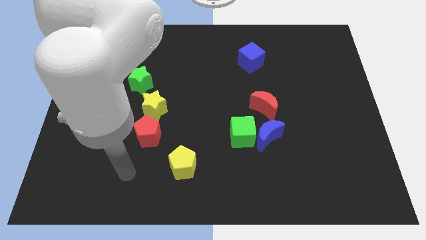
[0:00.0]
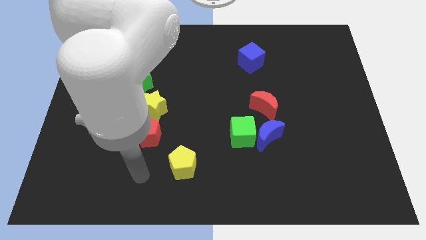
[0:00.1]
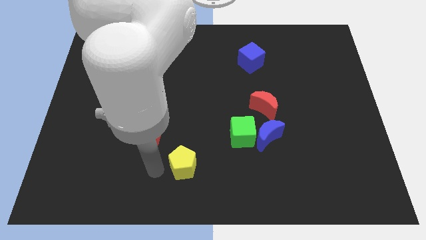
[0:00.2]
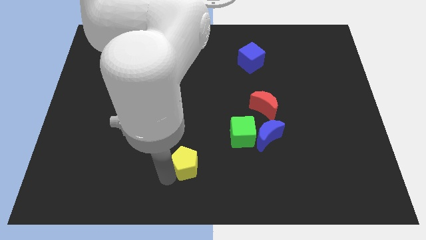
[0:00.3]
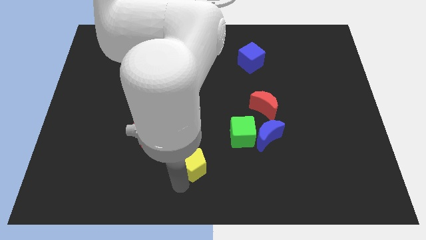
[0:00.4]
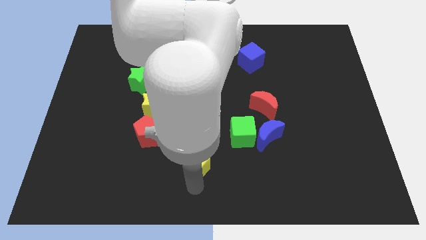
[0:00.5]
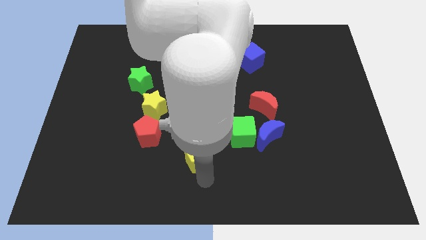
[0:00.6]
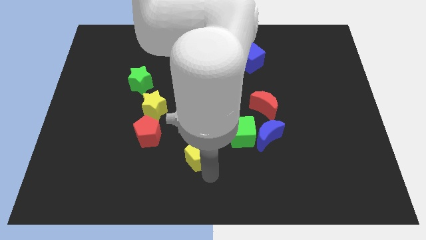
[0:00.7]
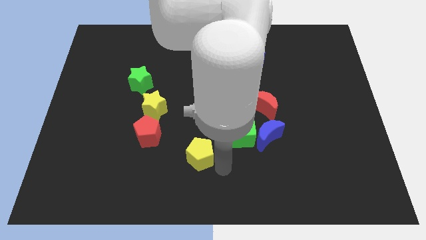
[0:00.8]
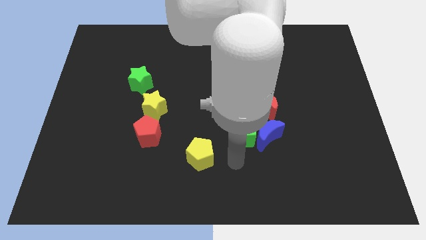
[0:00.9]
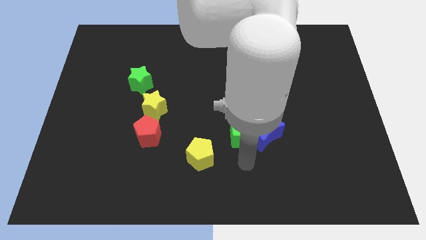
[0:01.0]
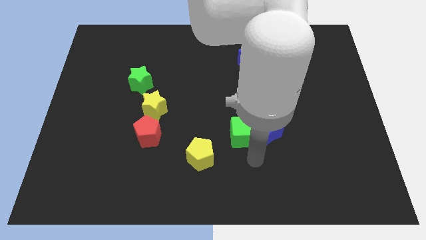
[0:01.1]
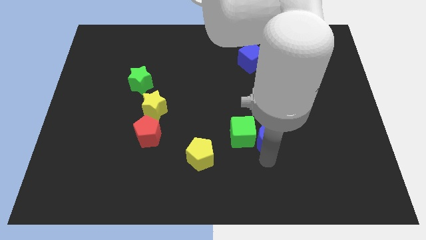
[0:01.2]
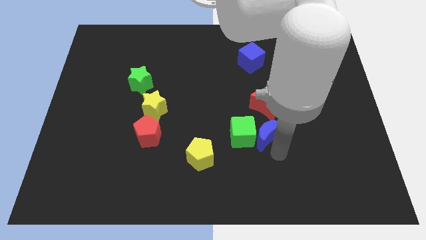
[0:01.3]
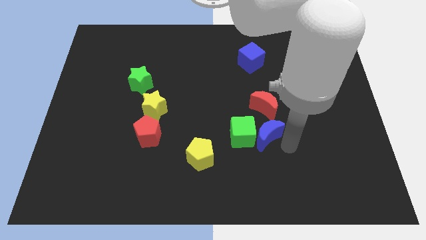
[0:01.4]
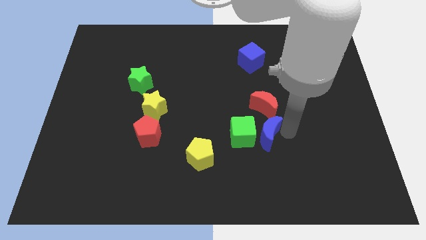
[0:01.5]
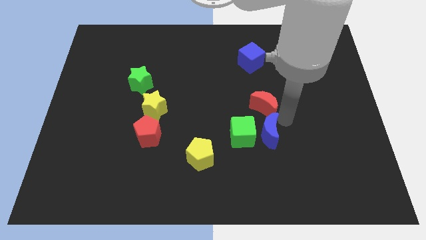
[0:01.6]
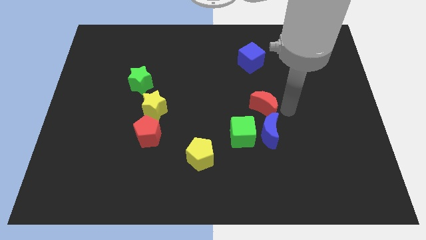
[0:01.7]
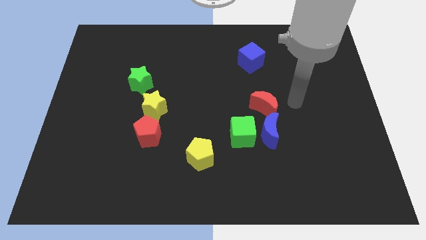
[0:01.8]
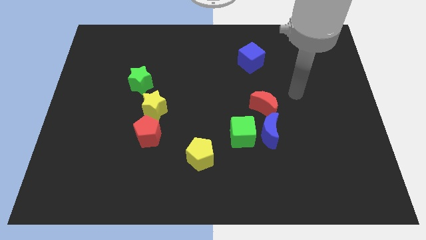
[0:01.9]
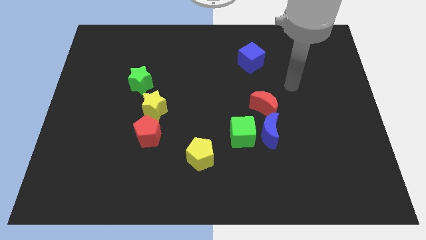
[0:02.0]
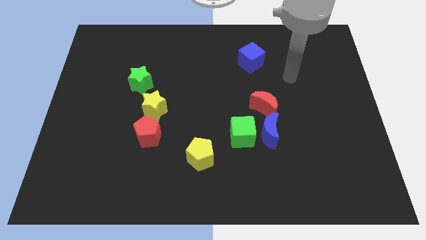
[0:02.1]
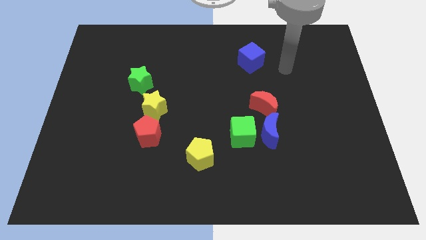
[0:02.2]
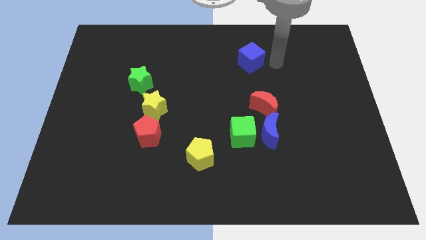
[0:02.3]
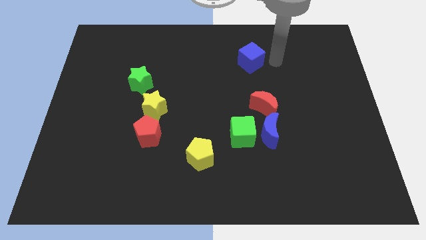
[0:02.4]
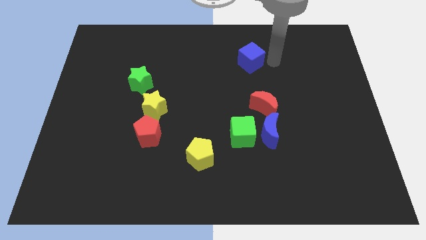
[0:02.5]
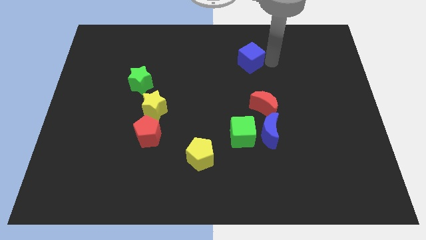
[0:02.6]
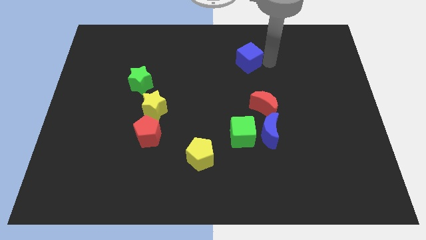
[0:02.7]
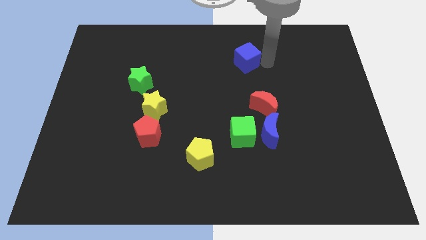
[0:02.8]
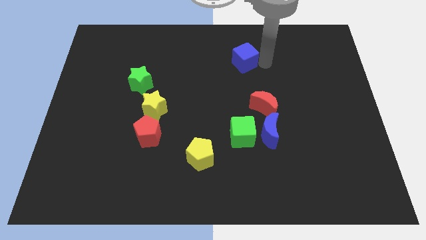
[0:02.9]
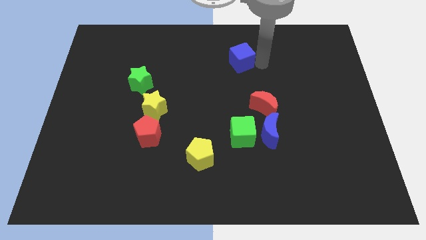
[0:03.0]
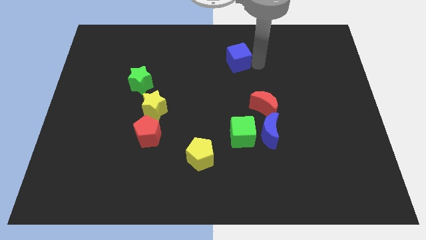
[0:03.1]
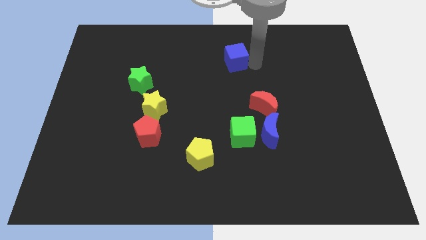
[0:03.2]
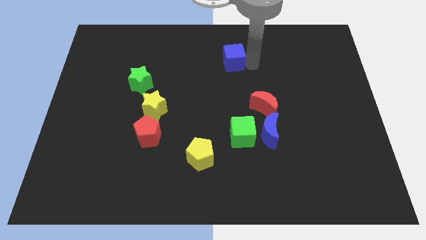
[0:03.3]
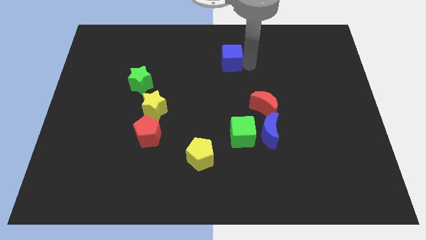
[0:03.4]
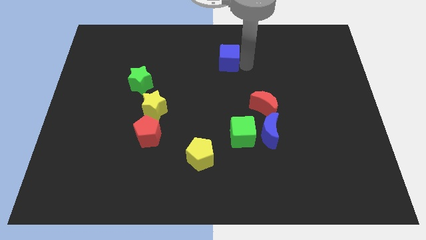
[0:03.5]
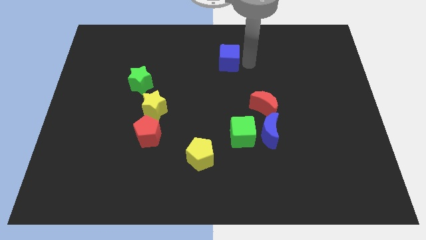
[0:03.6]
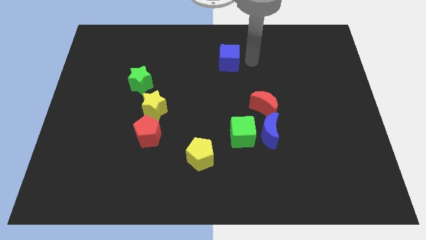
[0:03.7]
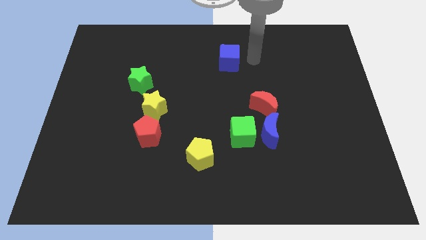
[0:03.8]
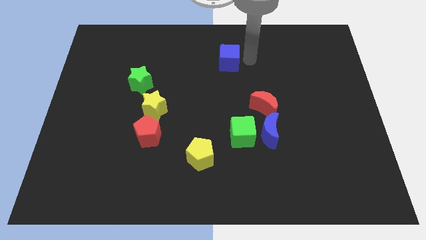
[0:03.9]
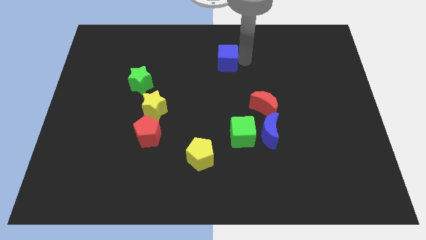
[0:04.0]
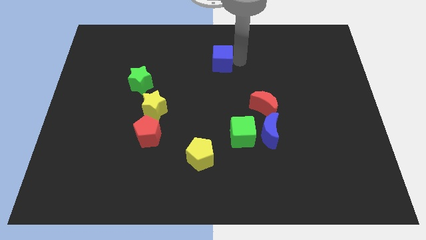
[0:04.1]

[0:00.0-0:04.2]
push the blue cube a bit left

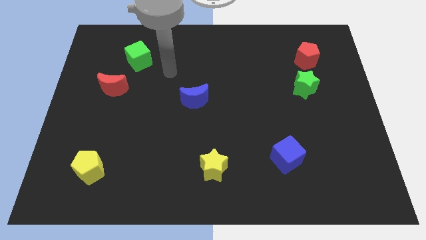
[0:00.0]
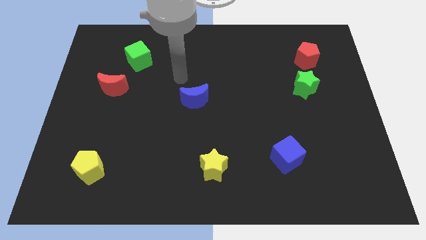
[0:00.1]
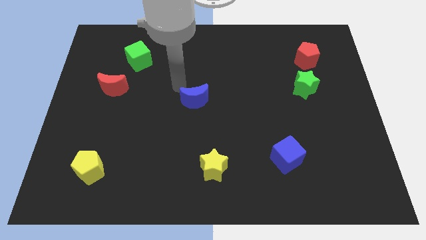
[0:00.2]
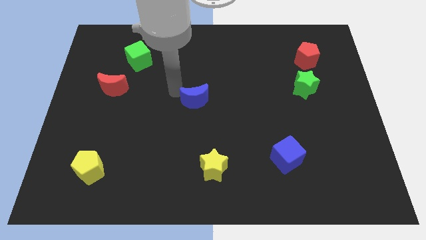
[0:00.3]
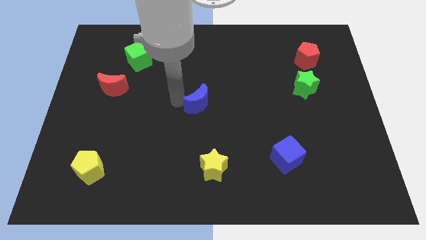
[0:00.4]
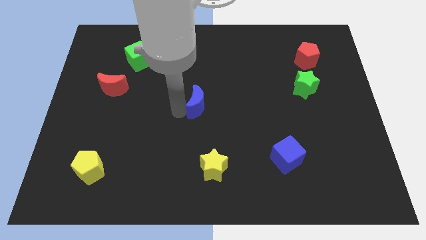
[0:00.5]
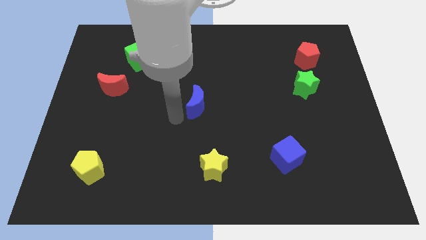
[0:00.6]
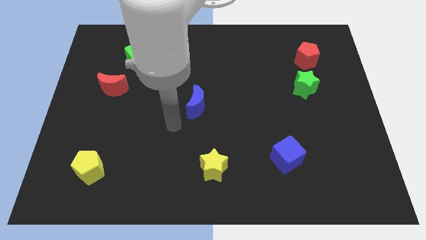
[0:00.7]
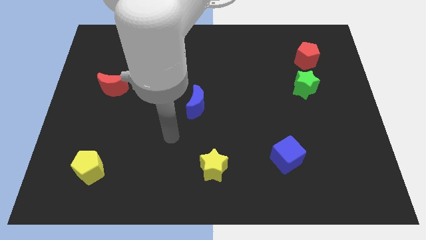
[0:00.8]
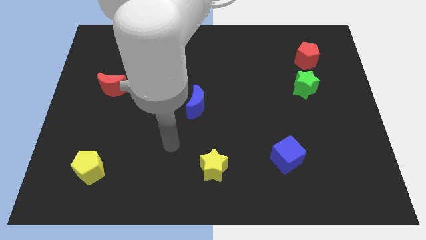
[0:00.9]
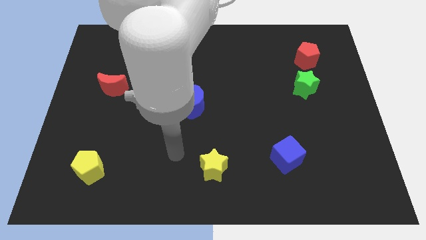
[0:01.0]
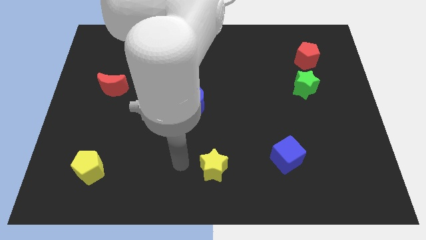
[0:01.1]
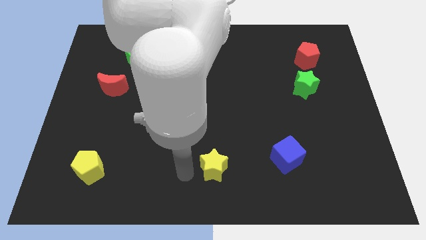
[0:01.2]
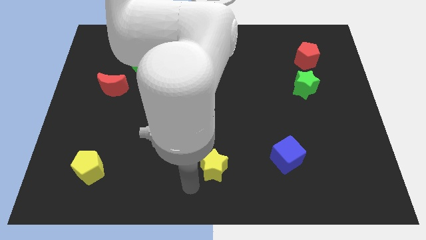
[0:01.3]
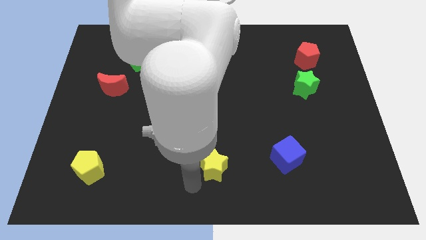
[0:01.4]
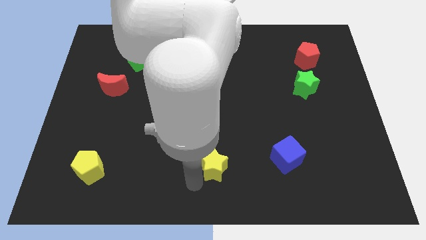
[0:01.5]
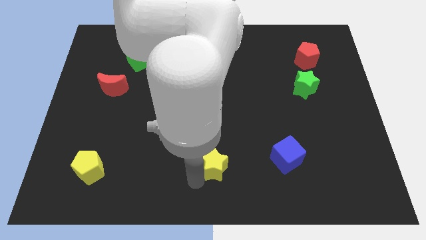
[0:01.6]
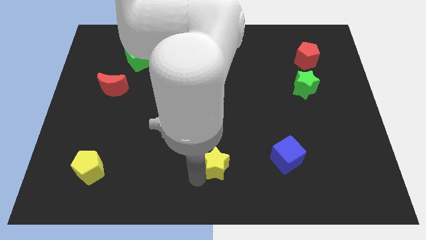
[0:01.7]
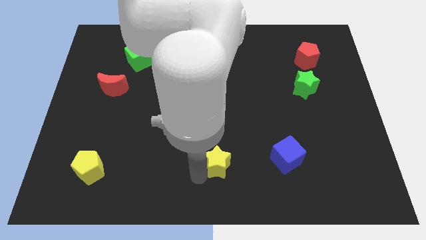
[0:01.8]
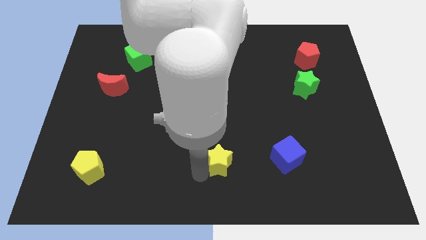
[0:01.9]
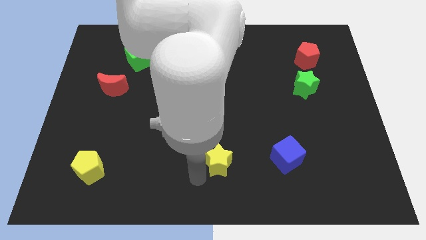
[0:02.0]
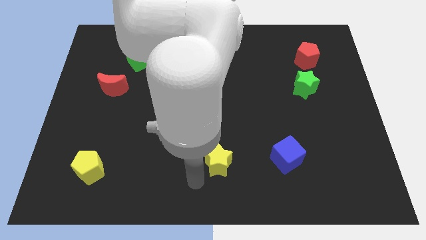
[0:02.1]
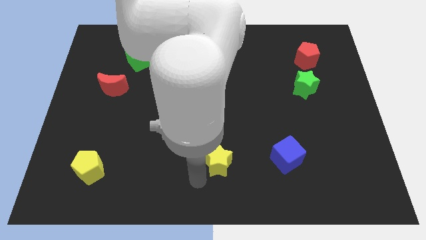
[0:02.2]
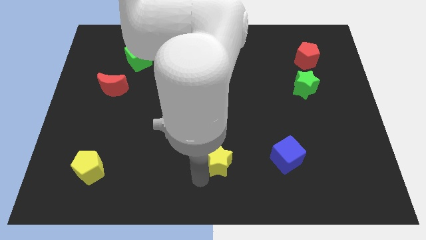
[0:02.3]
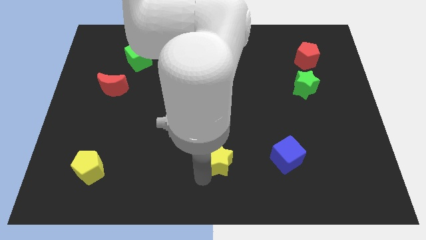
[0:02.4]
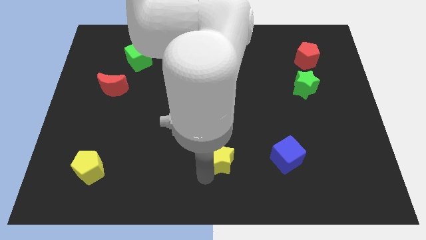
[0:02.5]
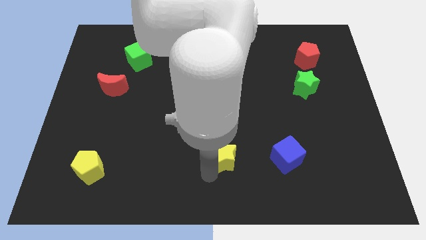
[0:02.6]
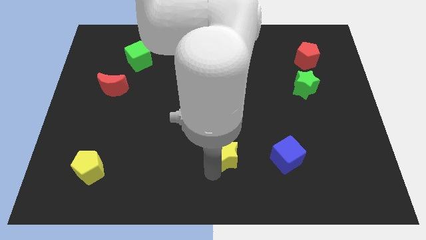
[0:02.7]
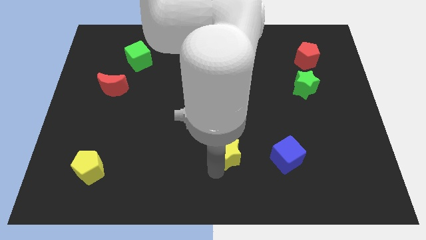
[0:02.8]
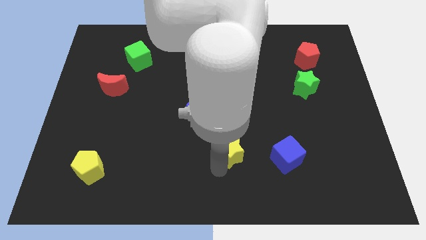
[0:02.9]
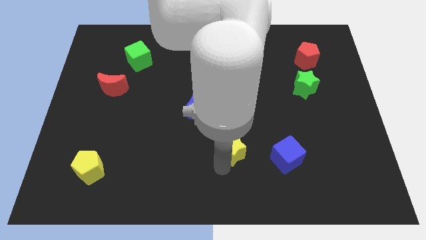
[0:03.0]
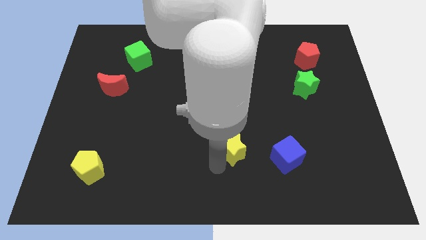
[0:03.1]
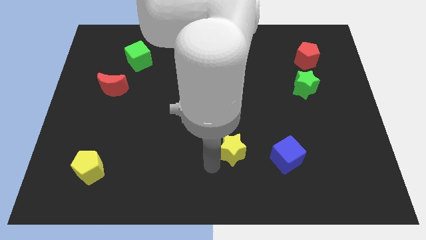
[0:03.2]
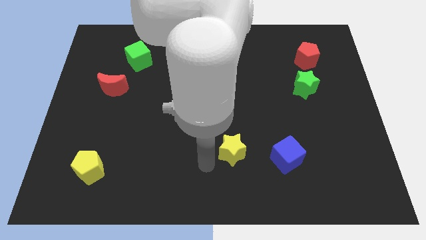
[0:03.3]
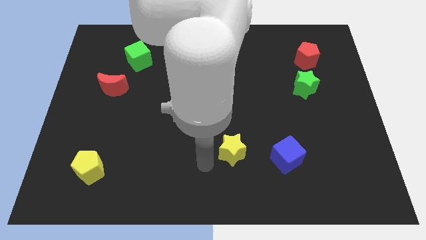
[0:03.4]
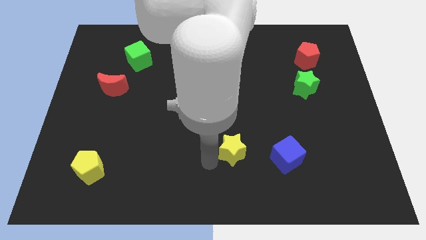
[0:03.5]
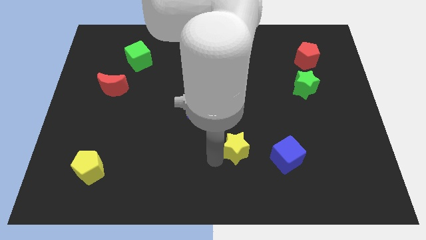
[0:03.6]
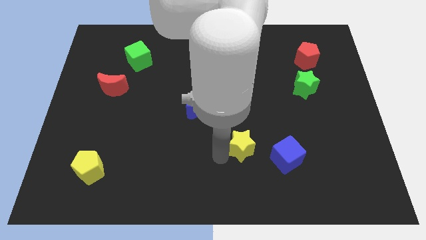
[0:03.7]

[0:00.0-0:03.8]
slightly push the yellow star upwards and to the right

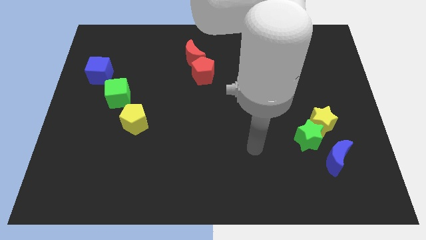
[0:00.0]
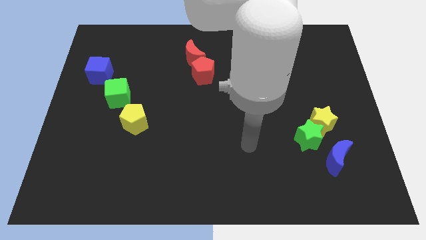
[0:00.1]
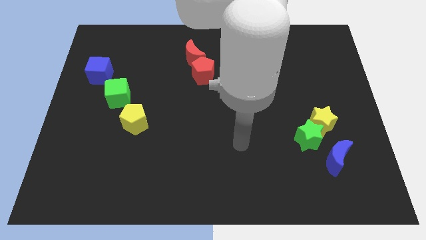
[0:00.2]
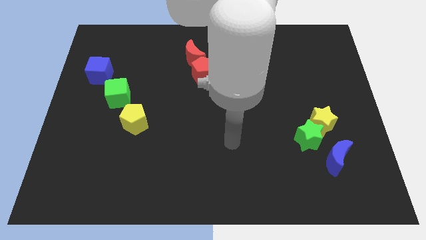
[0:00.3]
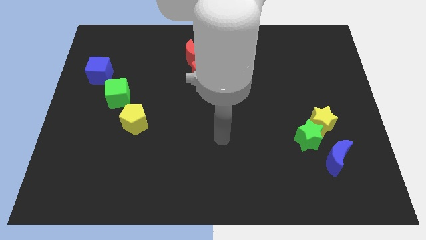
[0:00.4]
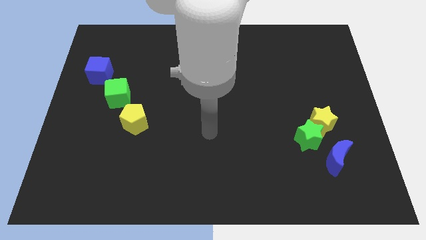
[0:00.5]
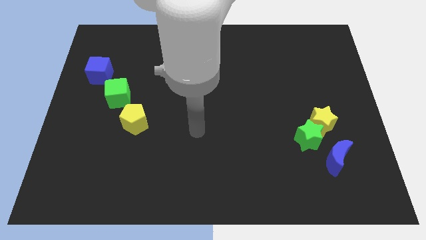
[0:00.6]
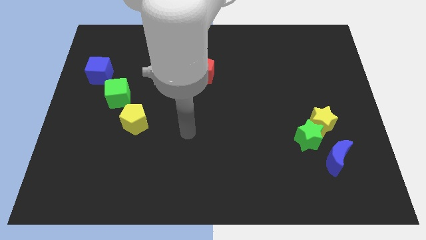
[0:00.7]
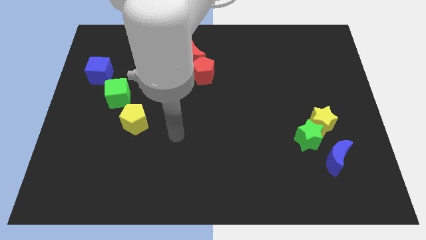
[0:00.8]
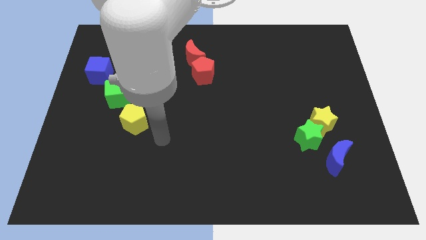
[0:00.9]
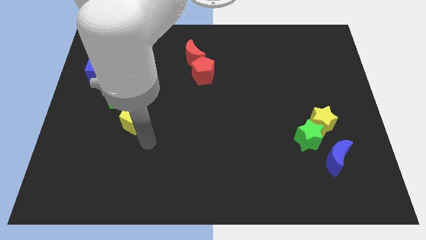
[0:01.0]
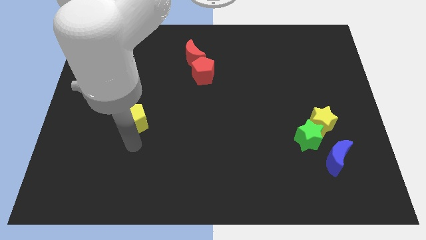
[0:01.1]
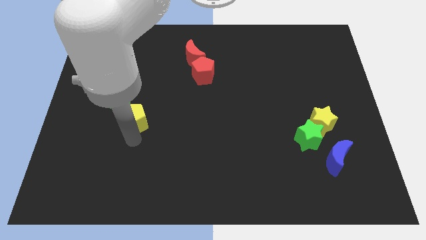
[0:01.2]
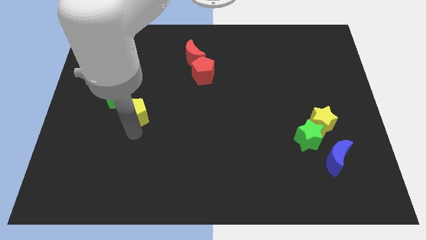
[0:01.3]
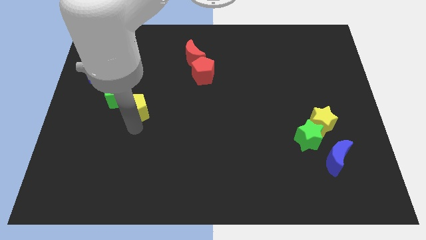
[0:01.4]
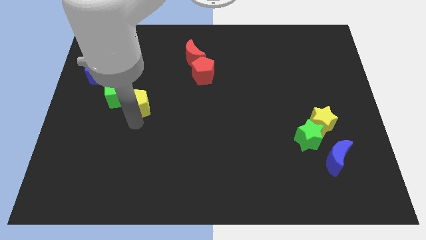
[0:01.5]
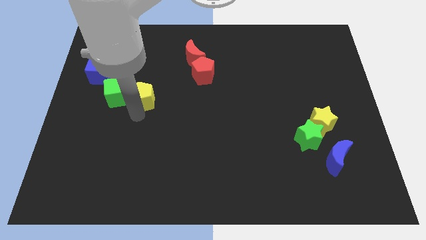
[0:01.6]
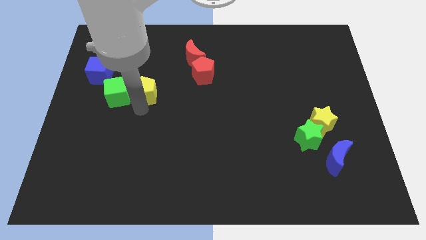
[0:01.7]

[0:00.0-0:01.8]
push the yellow pentagon a bit up
